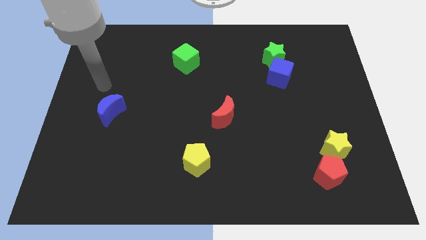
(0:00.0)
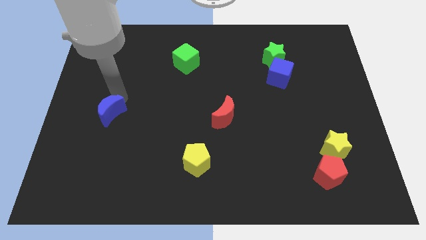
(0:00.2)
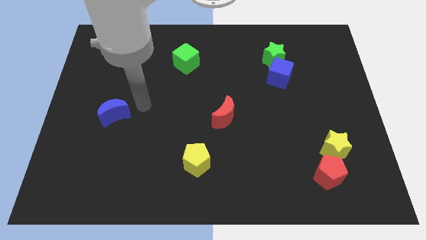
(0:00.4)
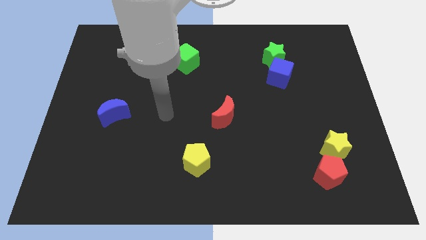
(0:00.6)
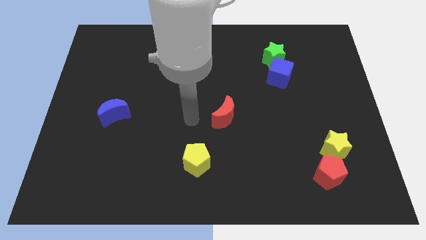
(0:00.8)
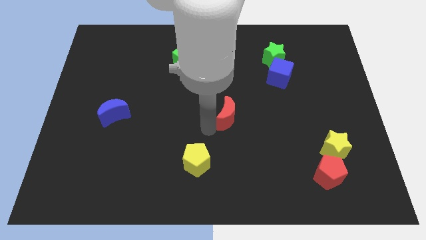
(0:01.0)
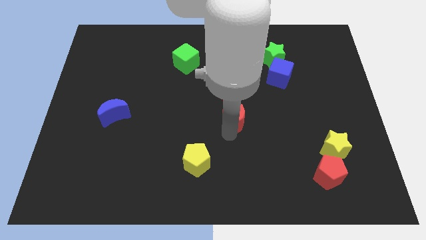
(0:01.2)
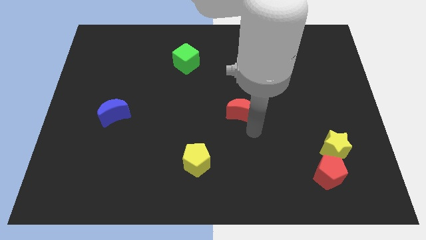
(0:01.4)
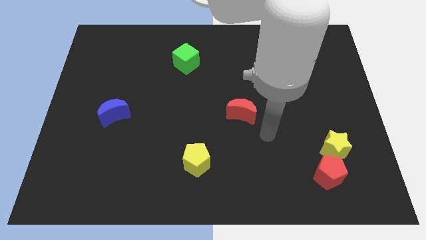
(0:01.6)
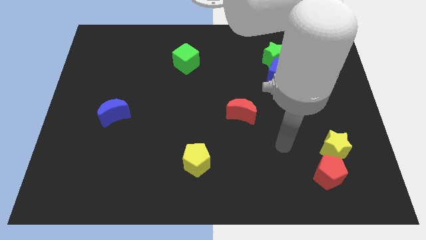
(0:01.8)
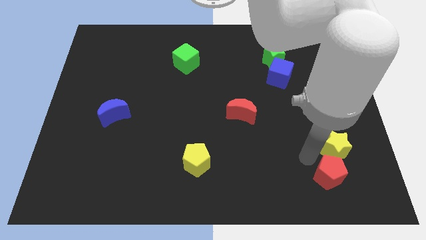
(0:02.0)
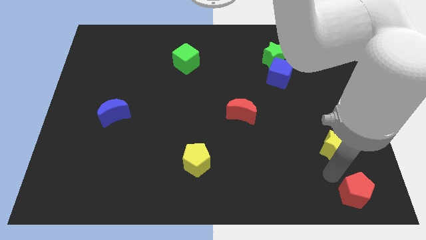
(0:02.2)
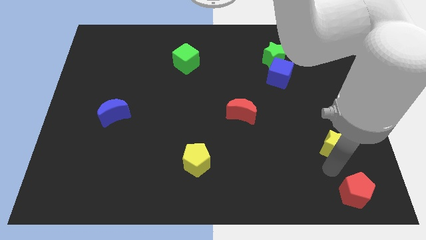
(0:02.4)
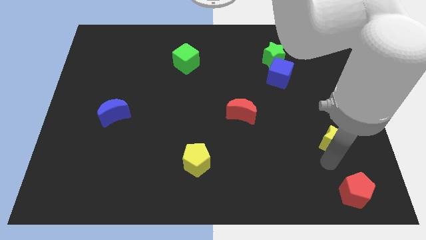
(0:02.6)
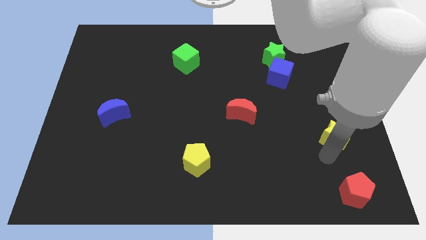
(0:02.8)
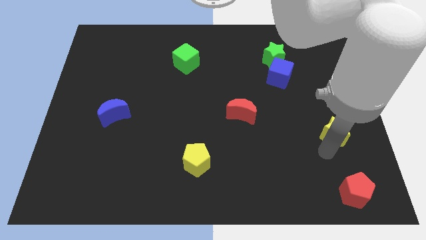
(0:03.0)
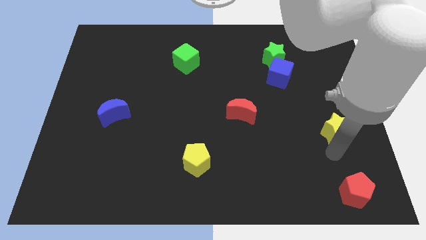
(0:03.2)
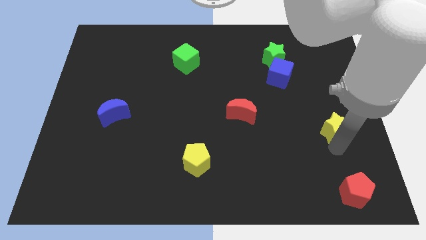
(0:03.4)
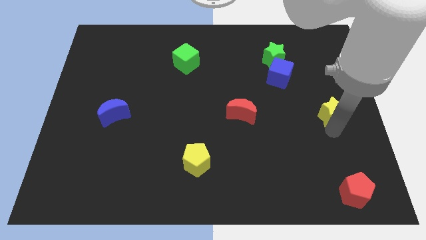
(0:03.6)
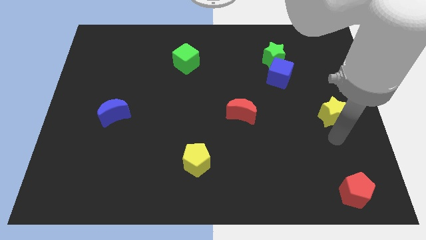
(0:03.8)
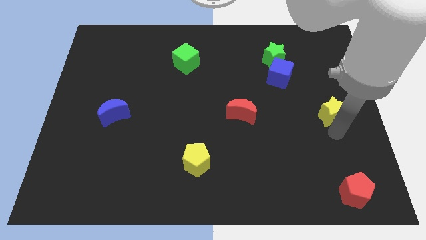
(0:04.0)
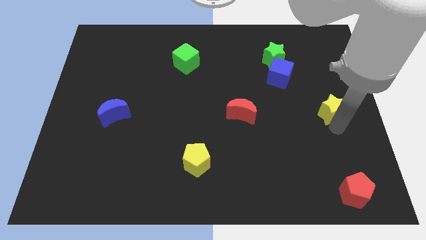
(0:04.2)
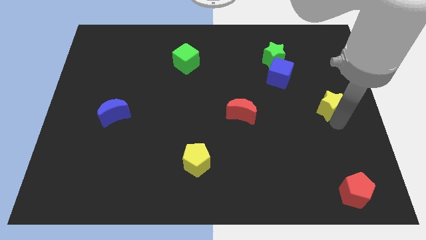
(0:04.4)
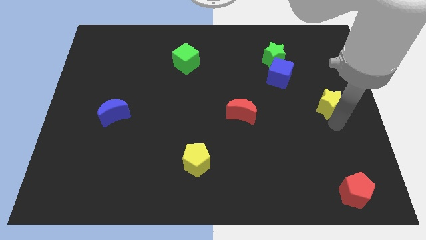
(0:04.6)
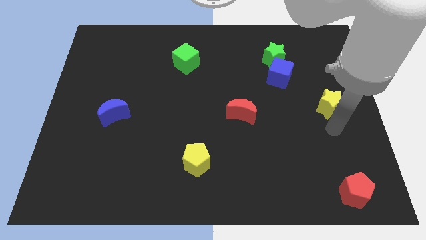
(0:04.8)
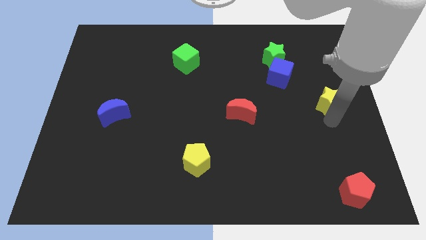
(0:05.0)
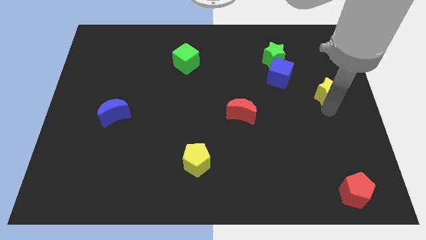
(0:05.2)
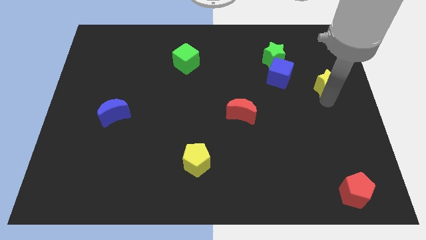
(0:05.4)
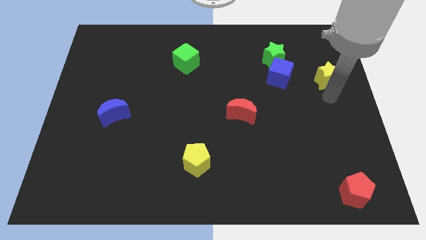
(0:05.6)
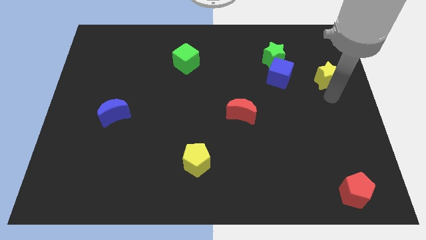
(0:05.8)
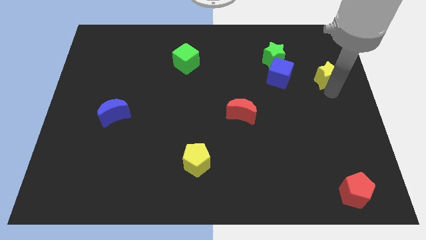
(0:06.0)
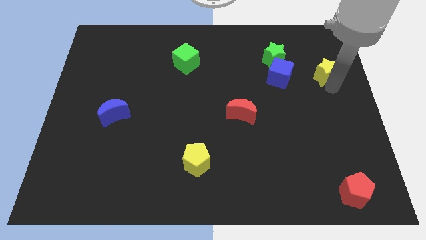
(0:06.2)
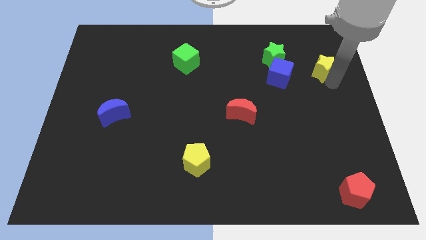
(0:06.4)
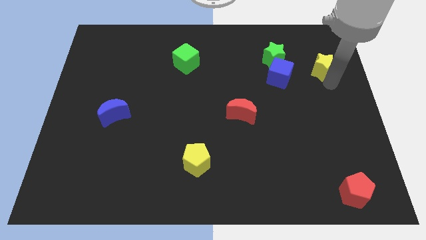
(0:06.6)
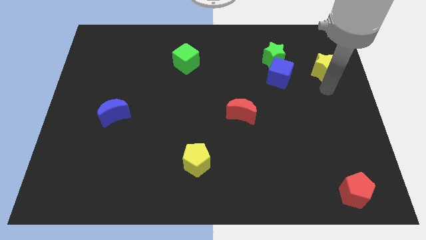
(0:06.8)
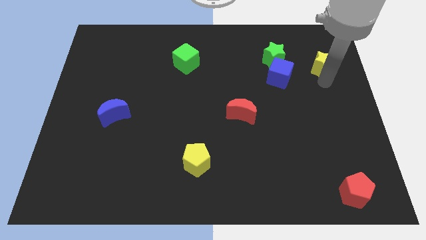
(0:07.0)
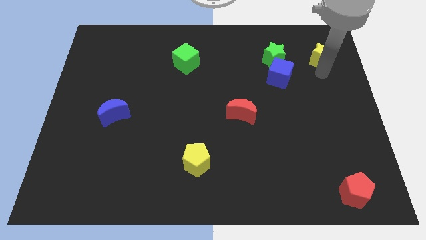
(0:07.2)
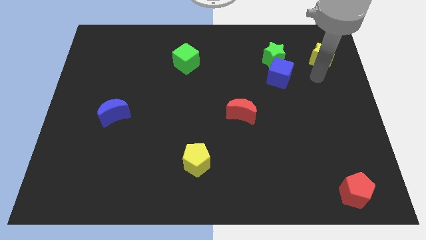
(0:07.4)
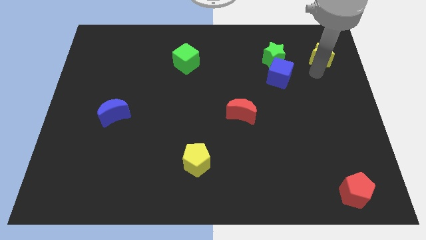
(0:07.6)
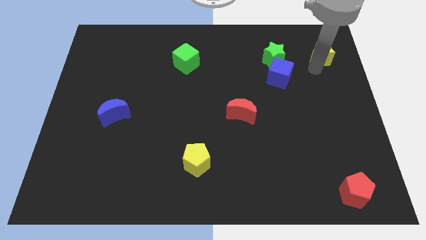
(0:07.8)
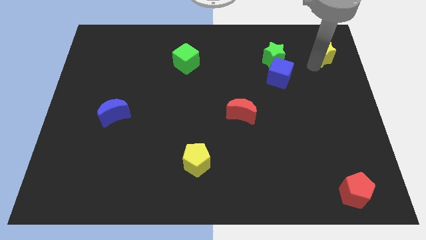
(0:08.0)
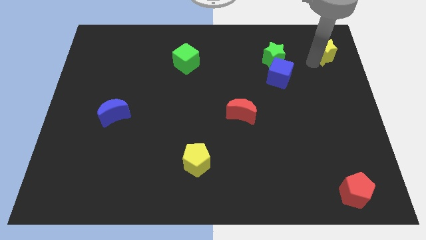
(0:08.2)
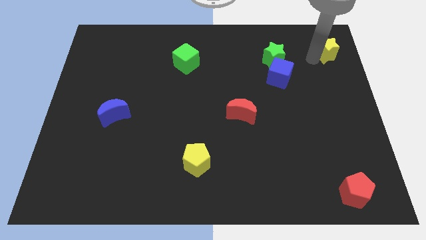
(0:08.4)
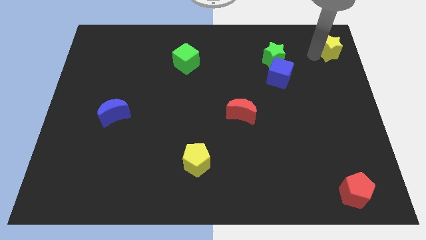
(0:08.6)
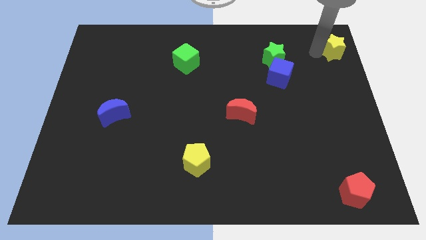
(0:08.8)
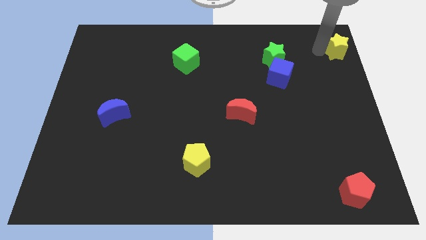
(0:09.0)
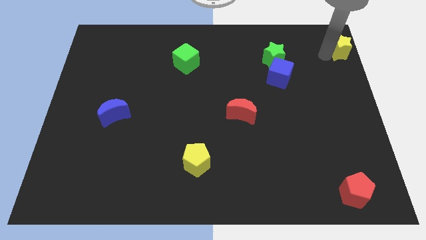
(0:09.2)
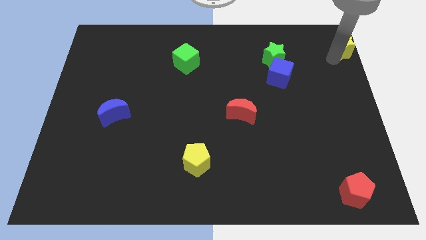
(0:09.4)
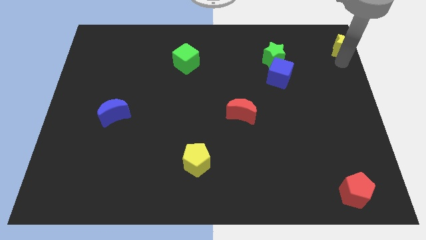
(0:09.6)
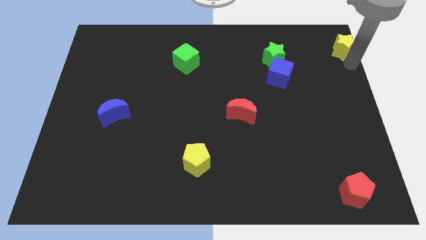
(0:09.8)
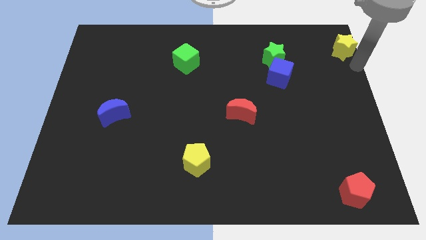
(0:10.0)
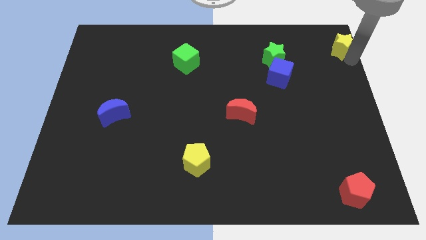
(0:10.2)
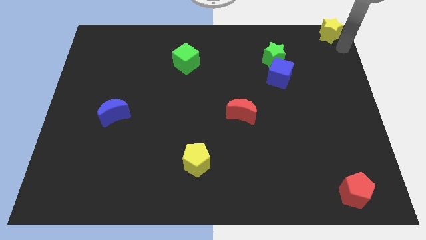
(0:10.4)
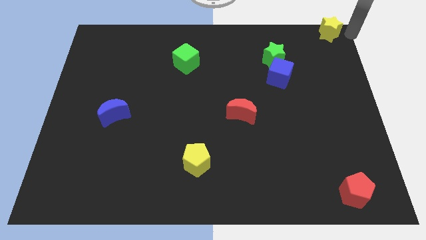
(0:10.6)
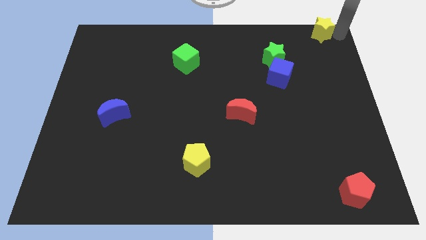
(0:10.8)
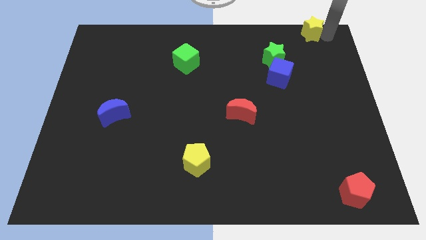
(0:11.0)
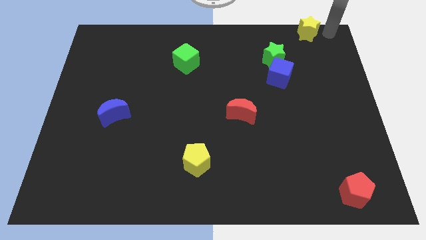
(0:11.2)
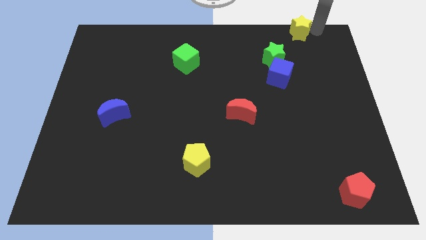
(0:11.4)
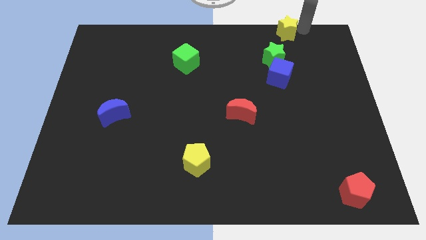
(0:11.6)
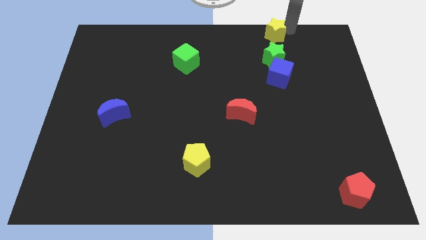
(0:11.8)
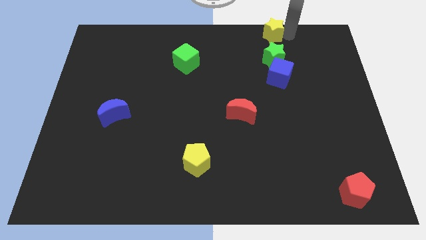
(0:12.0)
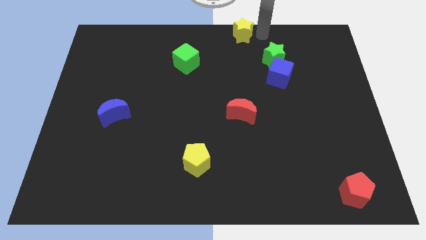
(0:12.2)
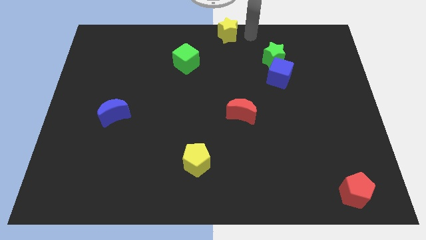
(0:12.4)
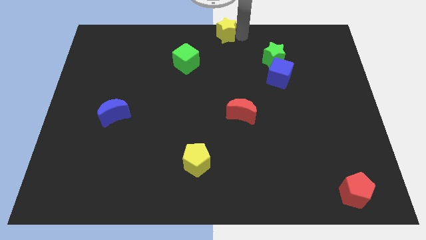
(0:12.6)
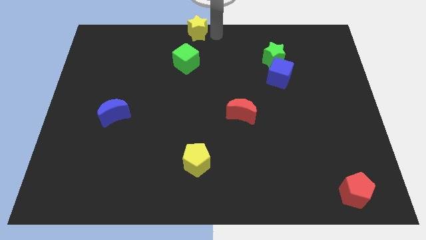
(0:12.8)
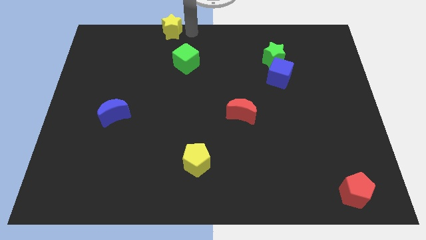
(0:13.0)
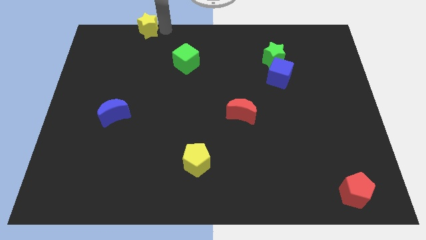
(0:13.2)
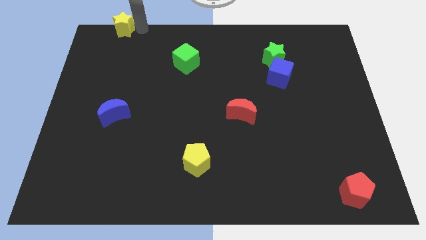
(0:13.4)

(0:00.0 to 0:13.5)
push the yellow star to the upper left corner

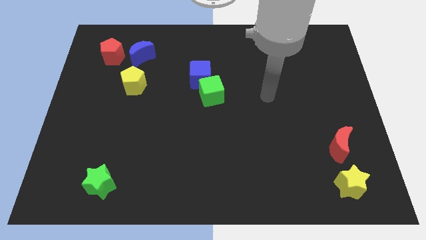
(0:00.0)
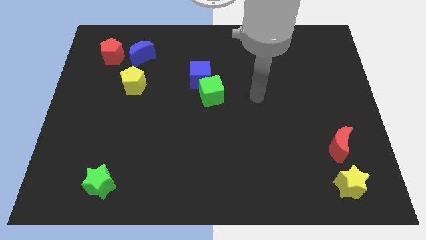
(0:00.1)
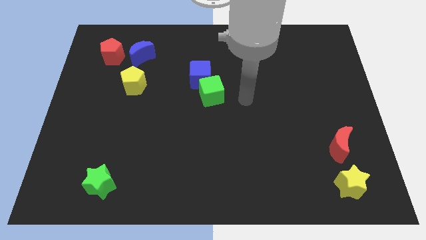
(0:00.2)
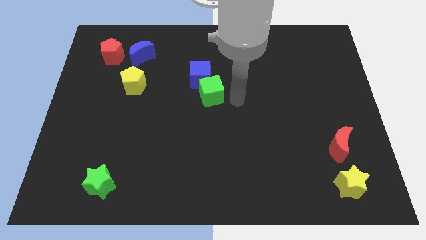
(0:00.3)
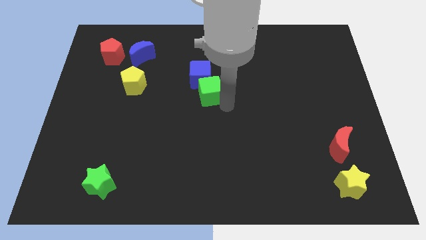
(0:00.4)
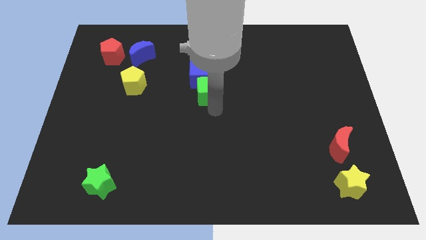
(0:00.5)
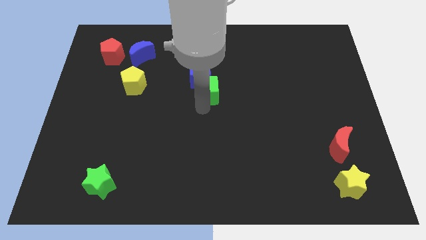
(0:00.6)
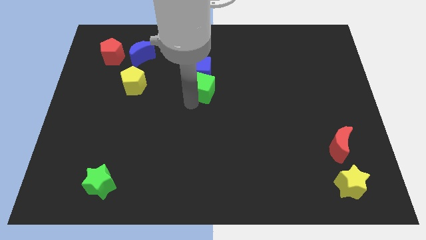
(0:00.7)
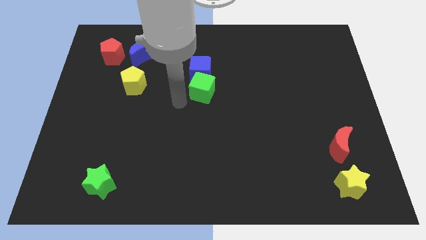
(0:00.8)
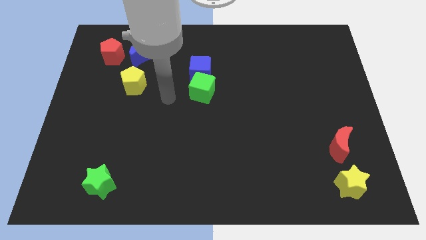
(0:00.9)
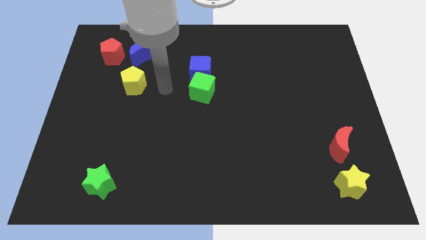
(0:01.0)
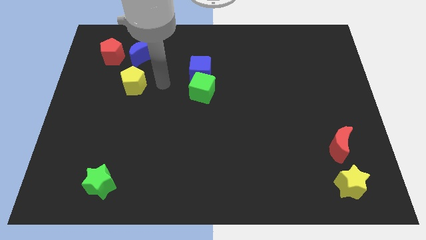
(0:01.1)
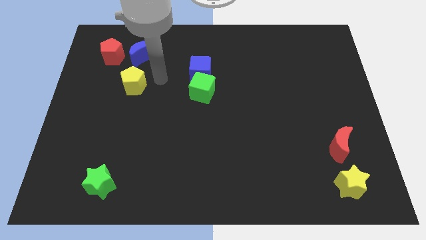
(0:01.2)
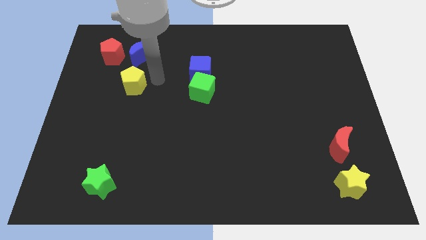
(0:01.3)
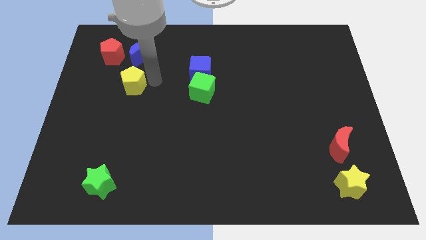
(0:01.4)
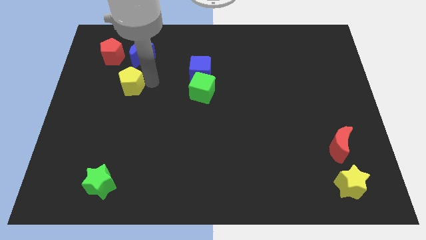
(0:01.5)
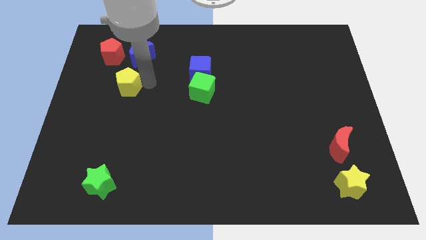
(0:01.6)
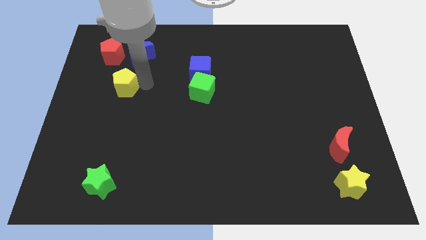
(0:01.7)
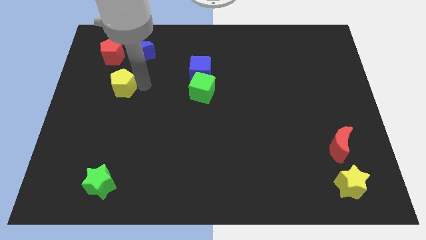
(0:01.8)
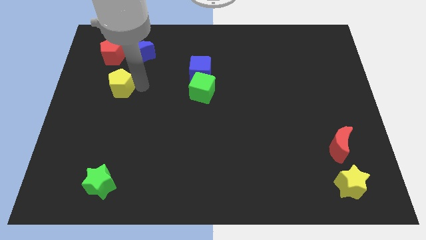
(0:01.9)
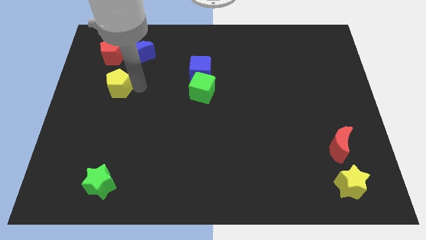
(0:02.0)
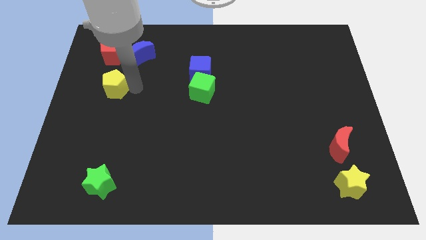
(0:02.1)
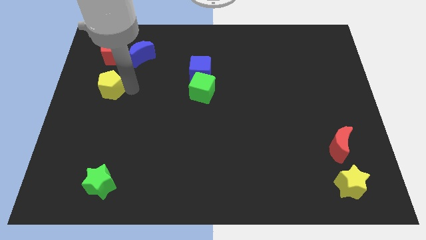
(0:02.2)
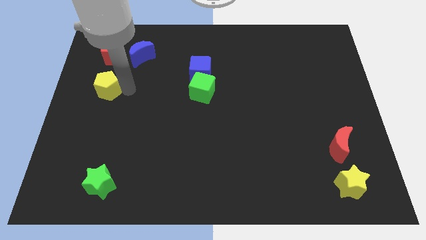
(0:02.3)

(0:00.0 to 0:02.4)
slide the yellow pentagon to the left side of the board
